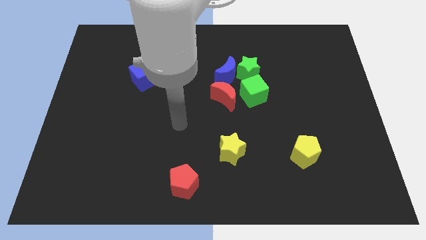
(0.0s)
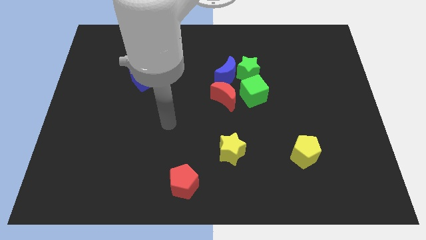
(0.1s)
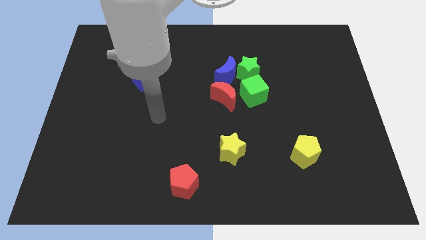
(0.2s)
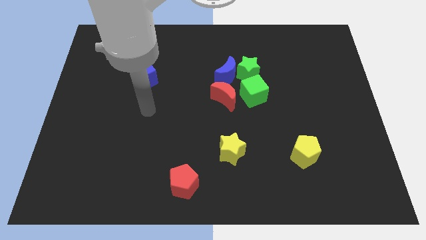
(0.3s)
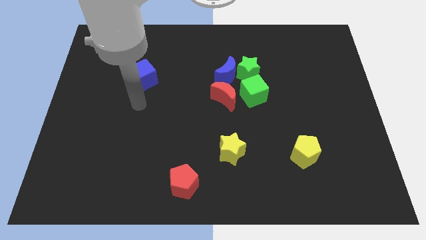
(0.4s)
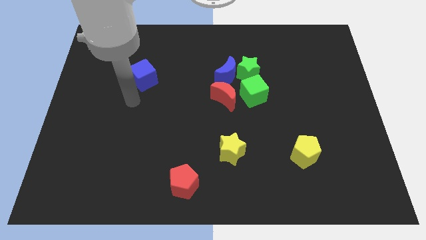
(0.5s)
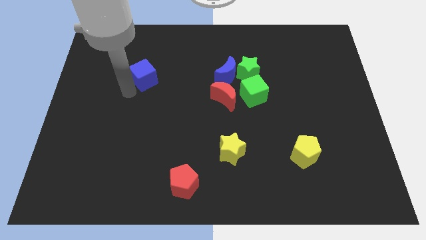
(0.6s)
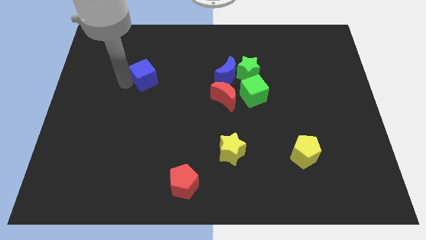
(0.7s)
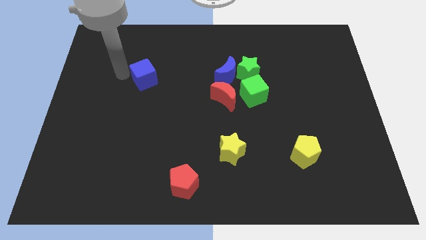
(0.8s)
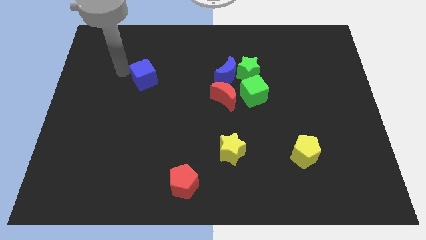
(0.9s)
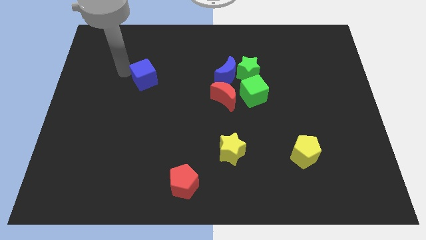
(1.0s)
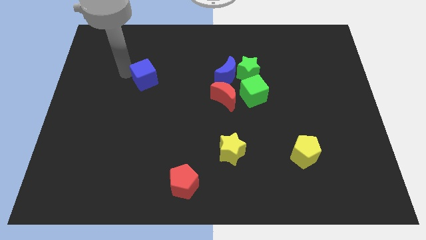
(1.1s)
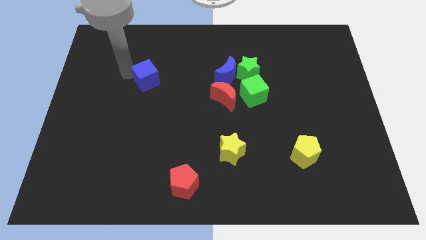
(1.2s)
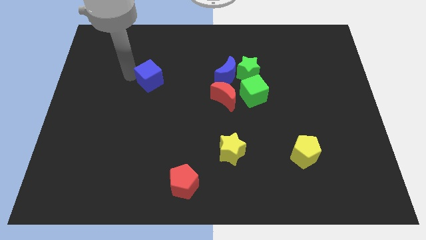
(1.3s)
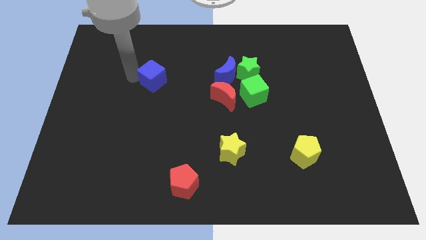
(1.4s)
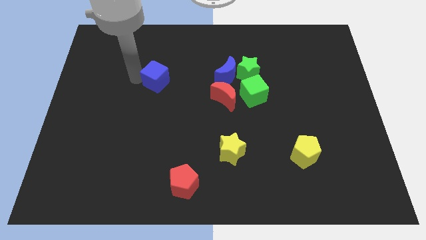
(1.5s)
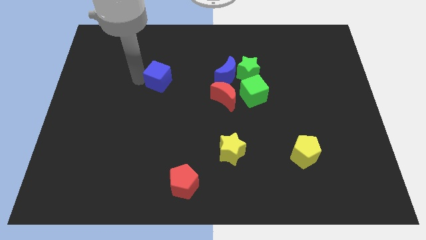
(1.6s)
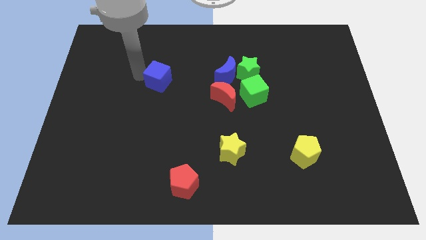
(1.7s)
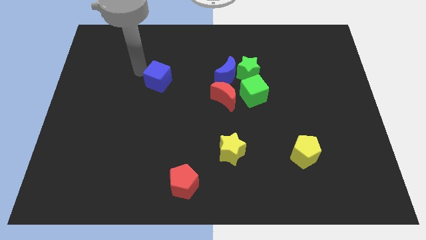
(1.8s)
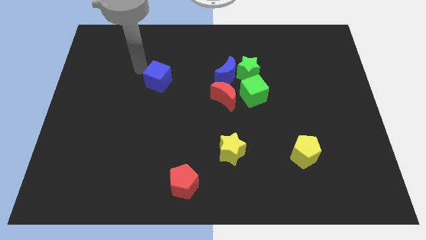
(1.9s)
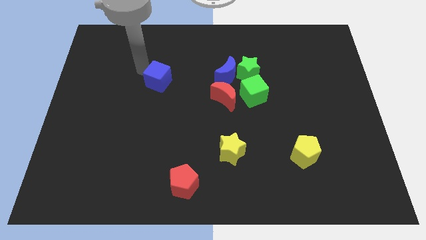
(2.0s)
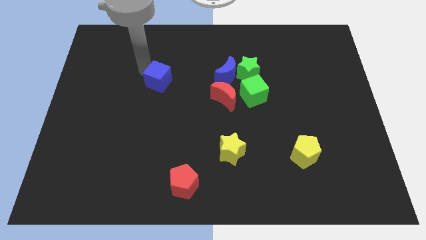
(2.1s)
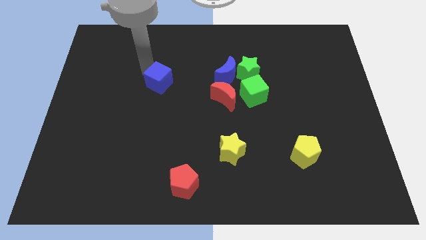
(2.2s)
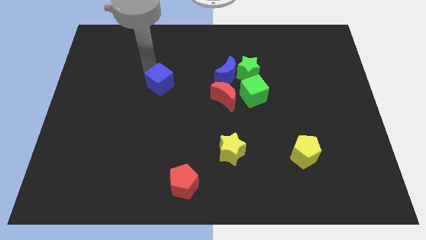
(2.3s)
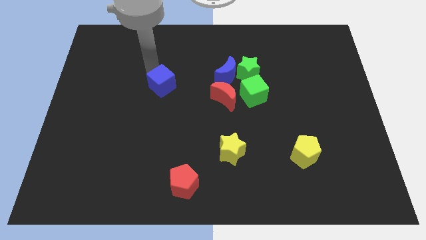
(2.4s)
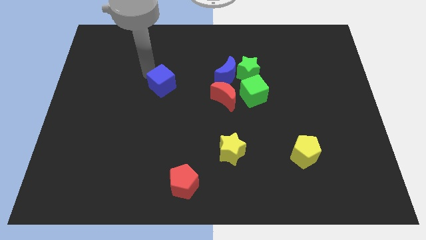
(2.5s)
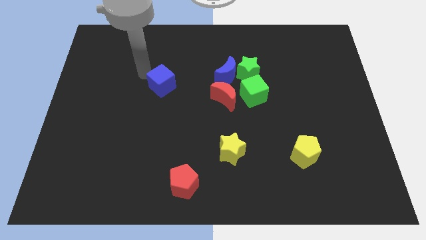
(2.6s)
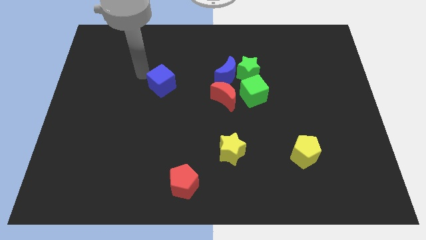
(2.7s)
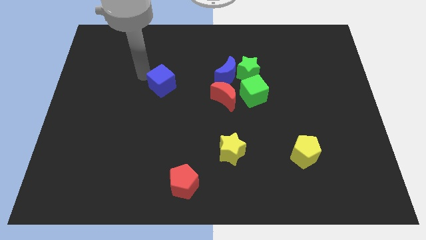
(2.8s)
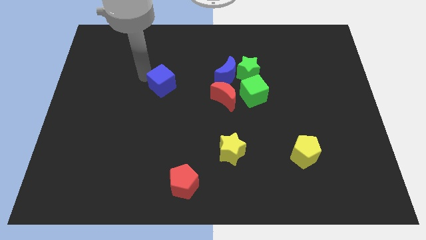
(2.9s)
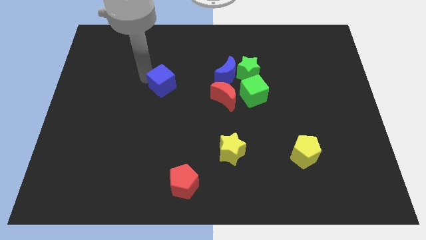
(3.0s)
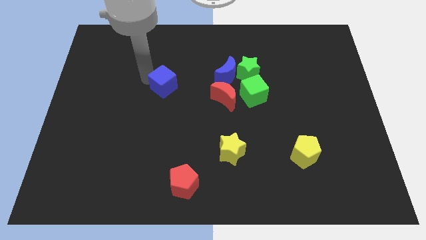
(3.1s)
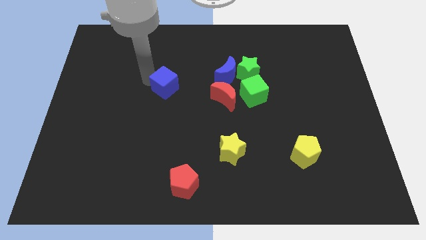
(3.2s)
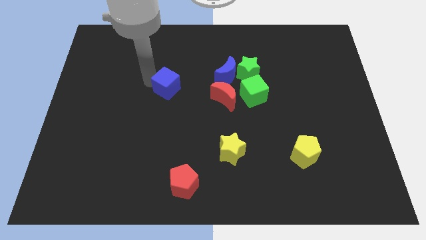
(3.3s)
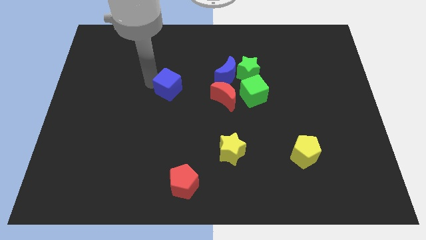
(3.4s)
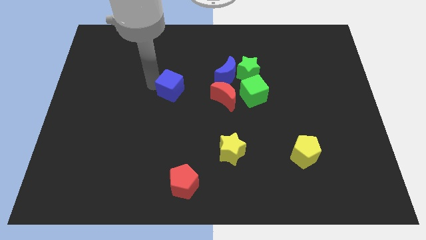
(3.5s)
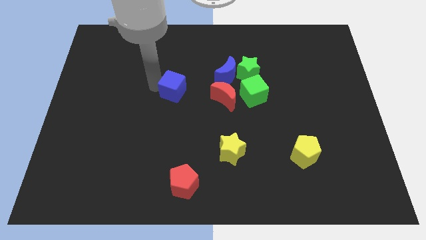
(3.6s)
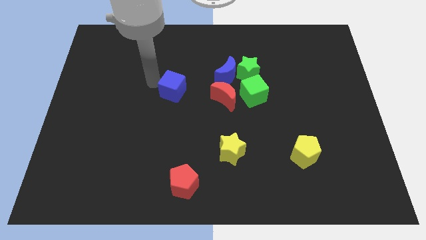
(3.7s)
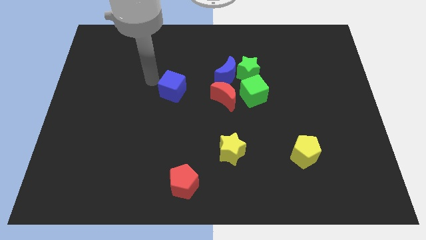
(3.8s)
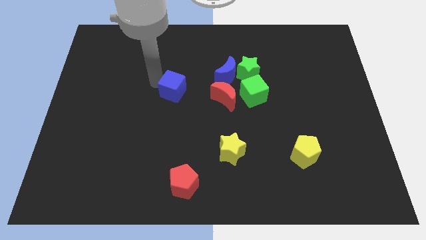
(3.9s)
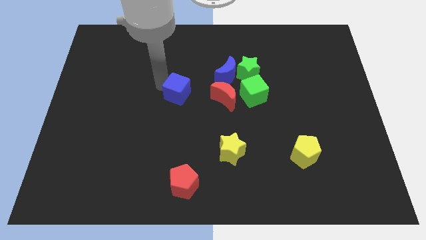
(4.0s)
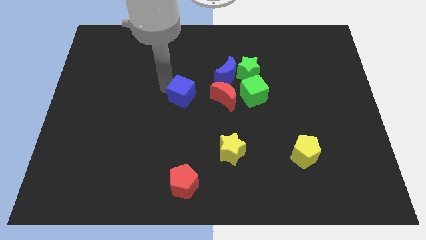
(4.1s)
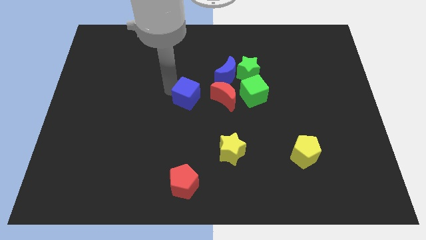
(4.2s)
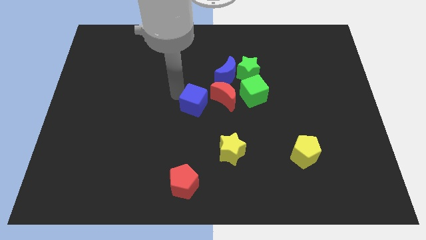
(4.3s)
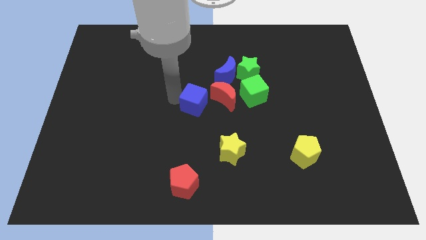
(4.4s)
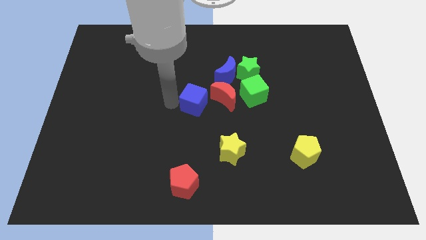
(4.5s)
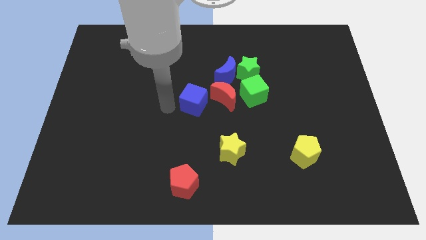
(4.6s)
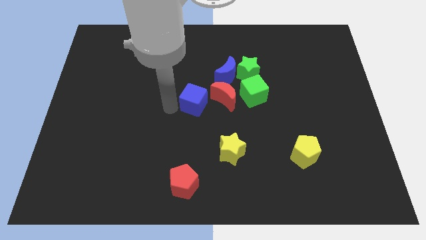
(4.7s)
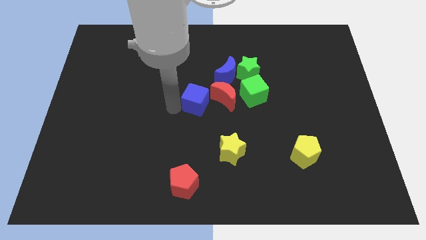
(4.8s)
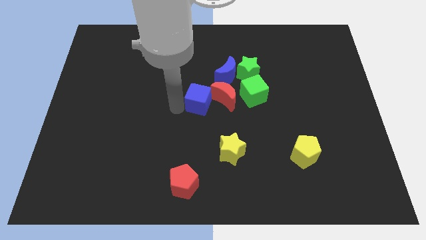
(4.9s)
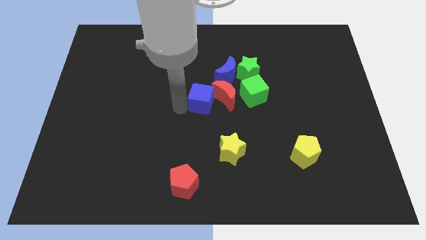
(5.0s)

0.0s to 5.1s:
slide the blue cube towards the red moon

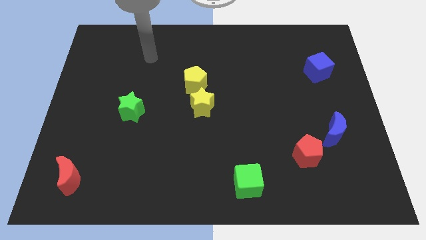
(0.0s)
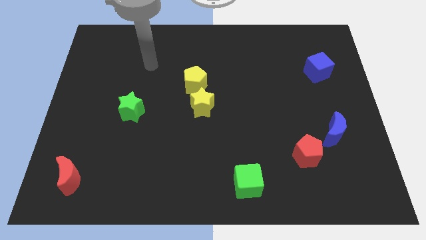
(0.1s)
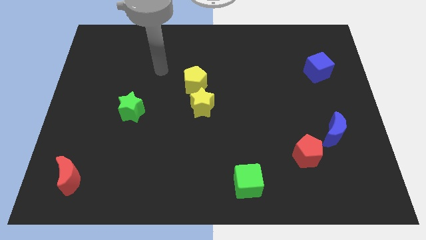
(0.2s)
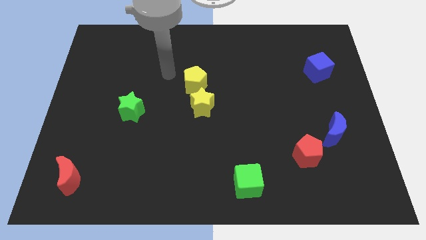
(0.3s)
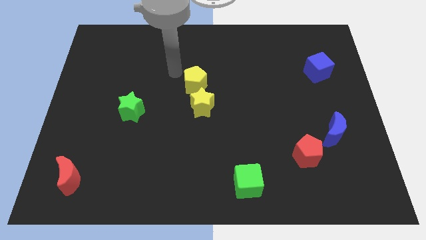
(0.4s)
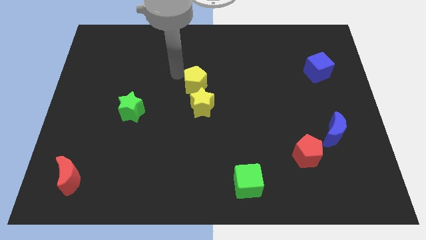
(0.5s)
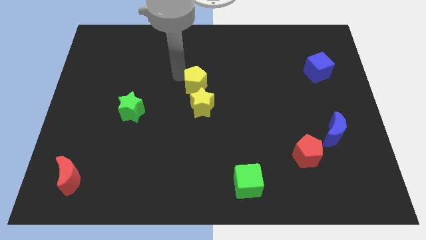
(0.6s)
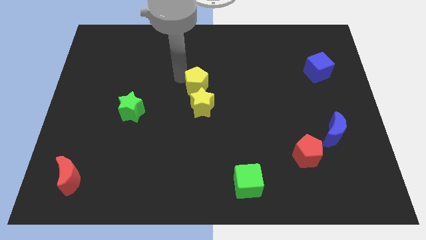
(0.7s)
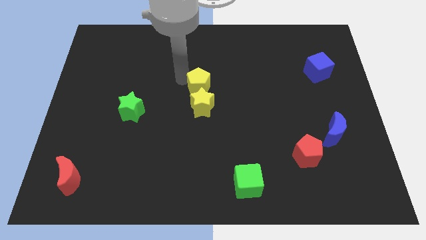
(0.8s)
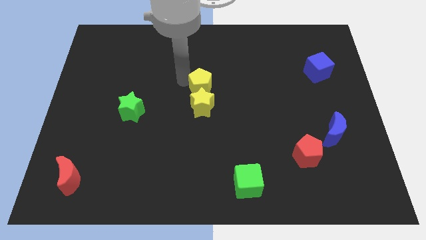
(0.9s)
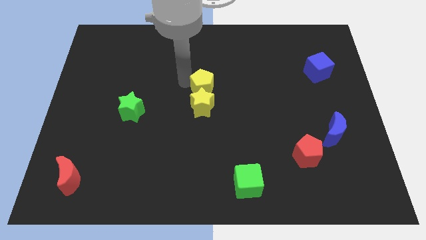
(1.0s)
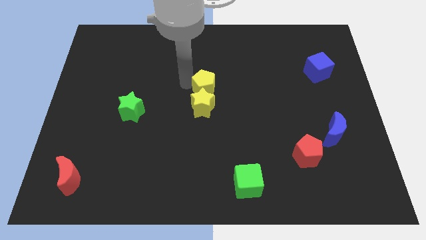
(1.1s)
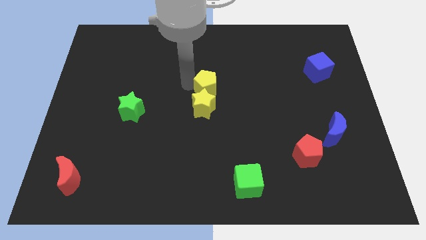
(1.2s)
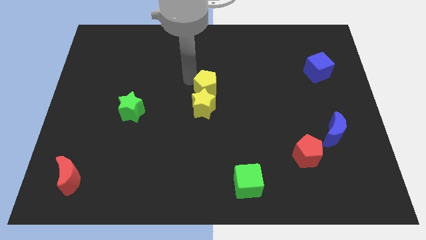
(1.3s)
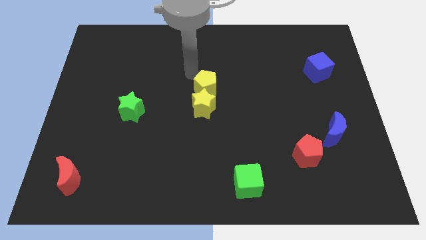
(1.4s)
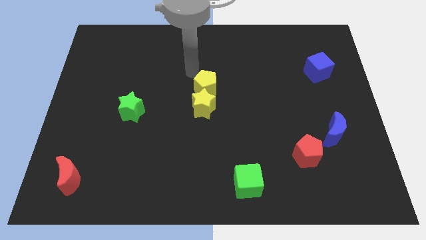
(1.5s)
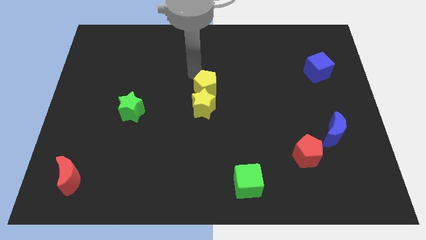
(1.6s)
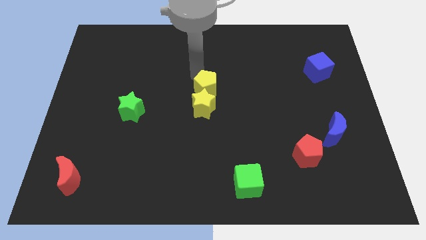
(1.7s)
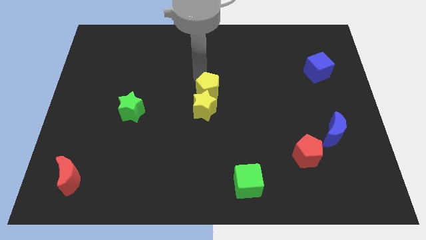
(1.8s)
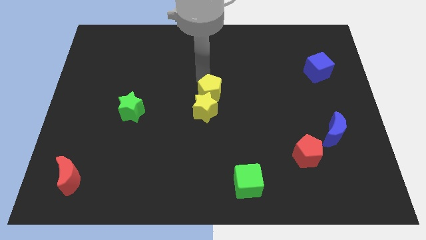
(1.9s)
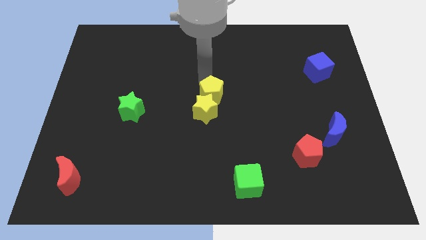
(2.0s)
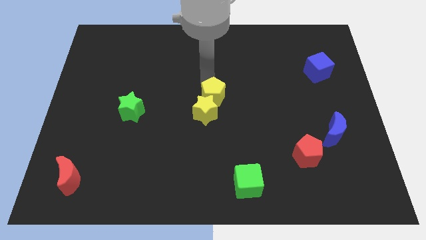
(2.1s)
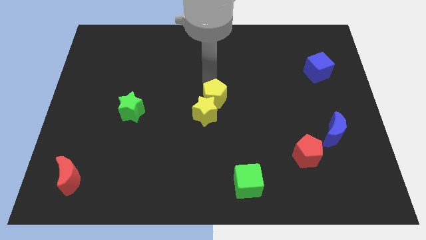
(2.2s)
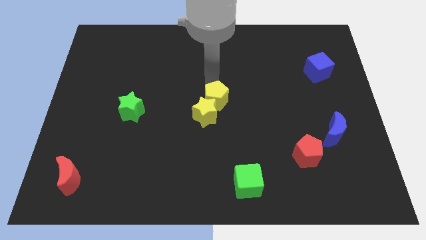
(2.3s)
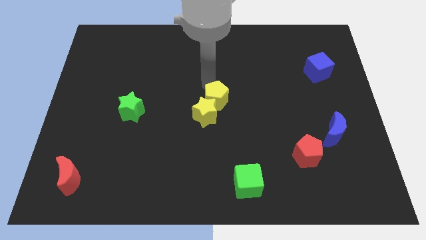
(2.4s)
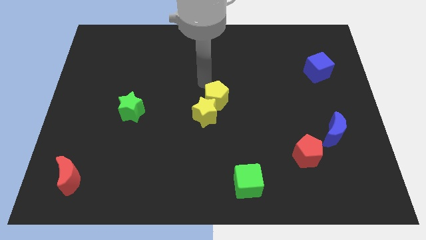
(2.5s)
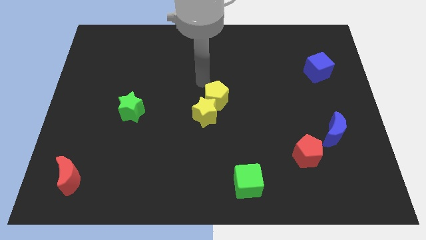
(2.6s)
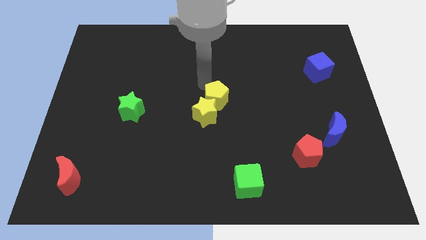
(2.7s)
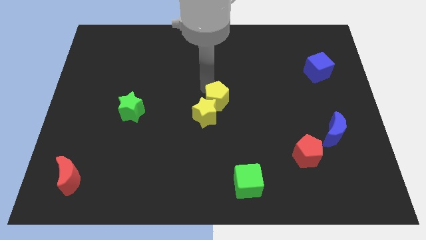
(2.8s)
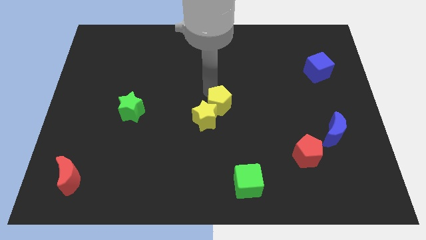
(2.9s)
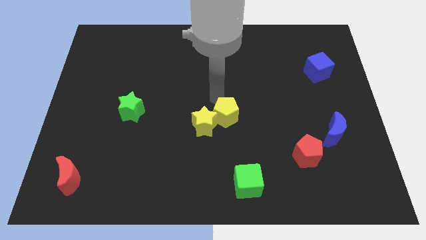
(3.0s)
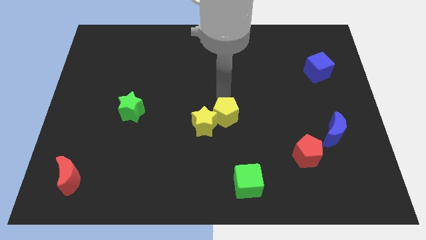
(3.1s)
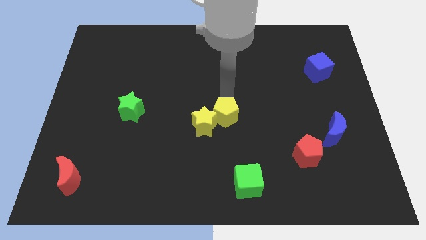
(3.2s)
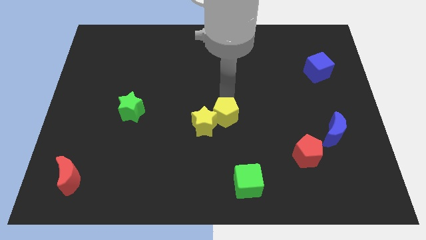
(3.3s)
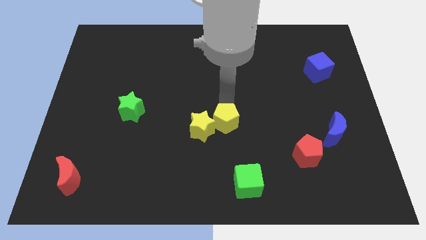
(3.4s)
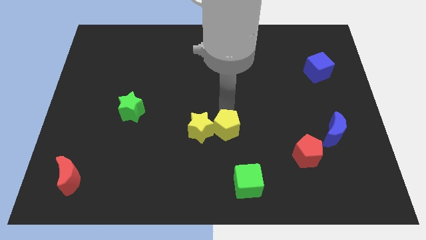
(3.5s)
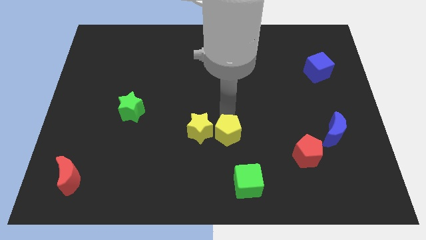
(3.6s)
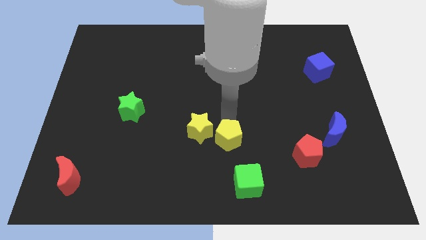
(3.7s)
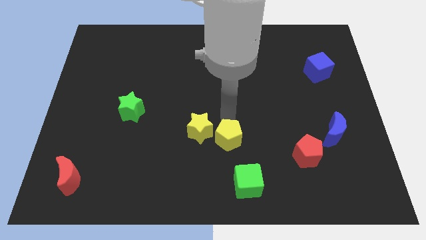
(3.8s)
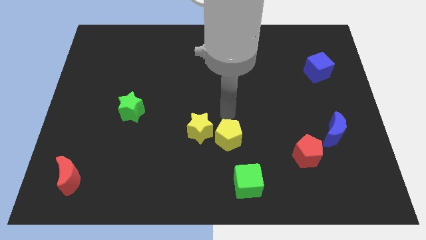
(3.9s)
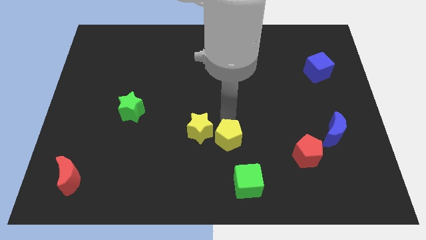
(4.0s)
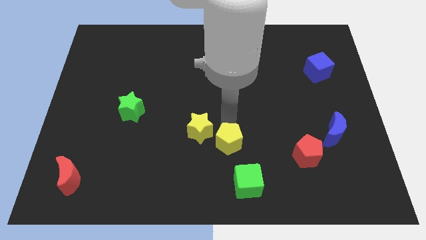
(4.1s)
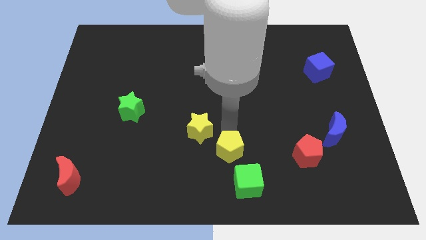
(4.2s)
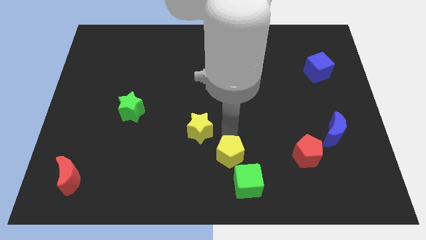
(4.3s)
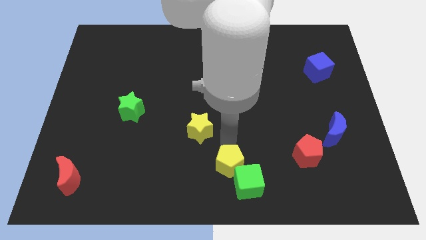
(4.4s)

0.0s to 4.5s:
move the yellow pentagon close to the green cube
